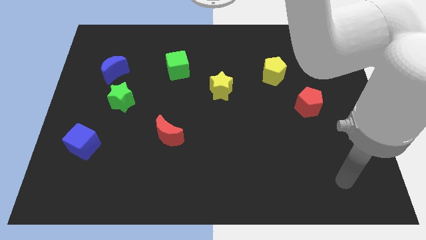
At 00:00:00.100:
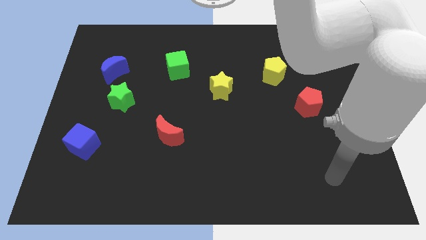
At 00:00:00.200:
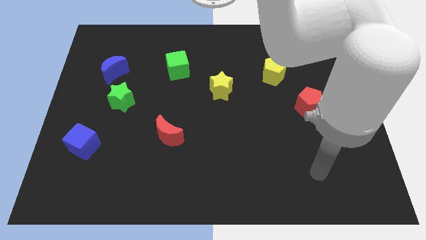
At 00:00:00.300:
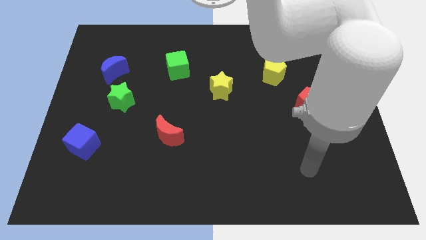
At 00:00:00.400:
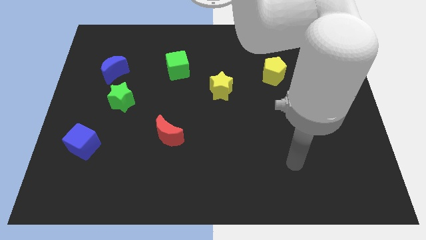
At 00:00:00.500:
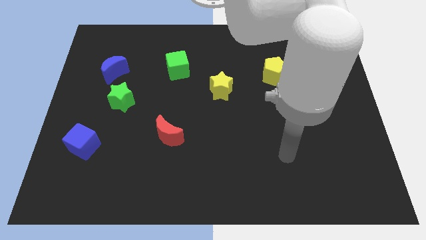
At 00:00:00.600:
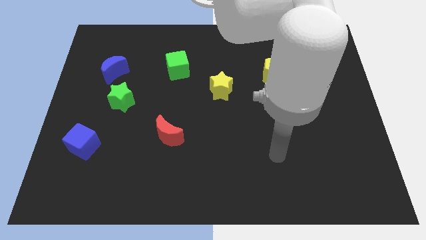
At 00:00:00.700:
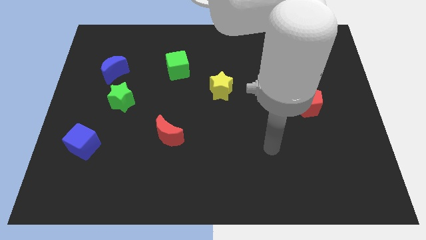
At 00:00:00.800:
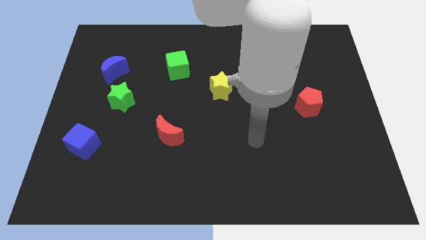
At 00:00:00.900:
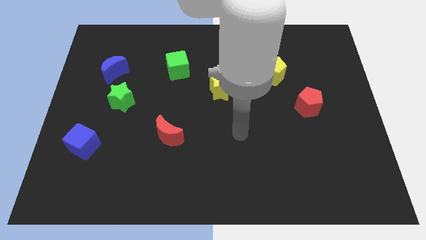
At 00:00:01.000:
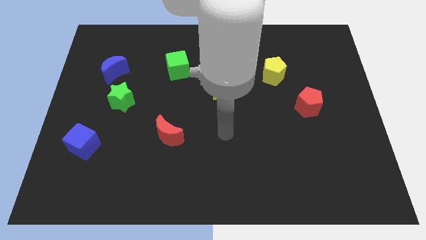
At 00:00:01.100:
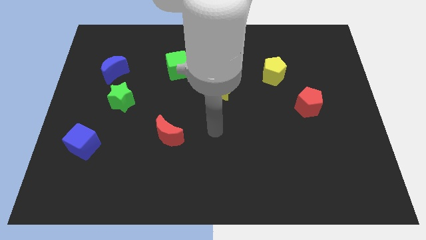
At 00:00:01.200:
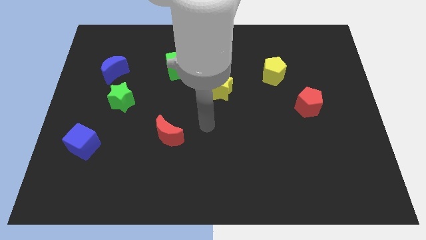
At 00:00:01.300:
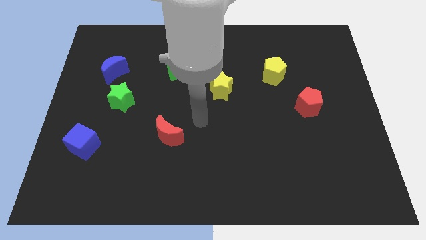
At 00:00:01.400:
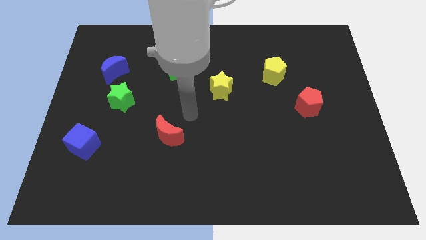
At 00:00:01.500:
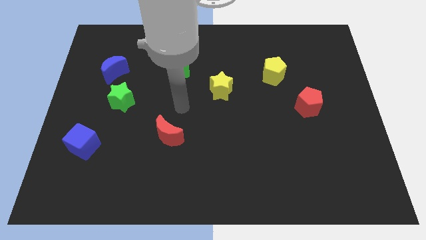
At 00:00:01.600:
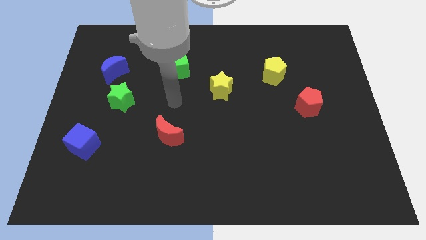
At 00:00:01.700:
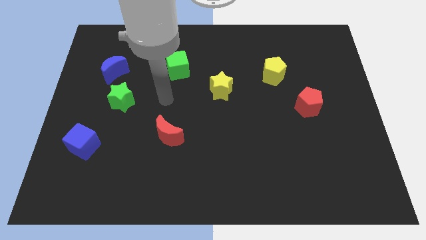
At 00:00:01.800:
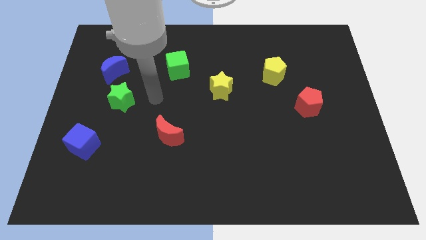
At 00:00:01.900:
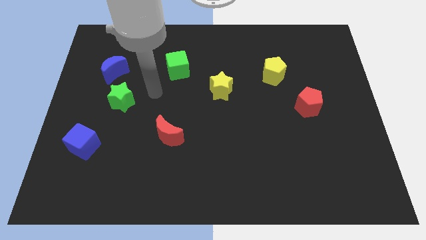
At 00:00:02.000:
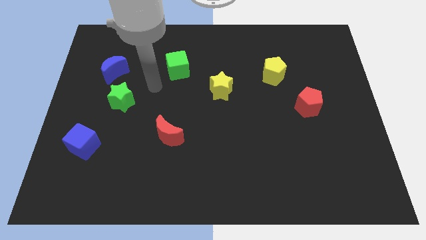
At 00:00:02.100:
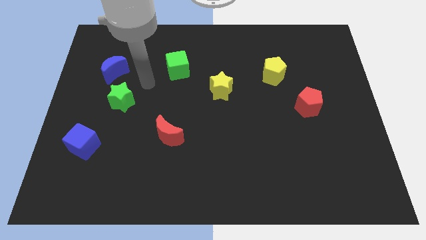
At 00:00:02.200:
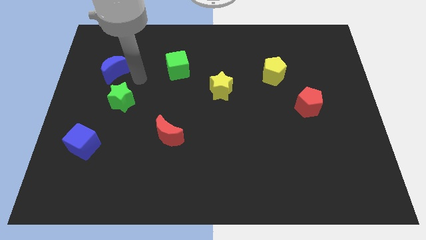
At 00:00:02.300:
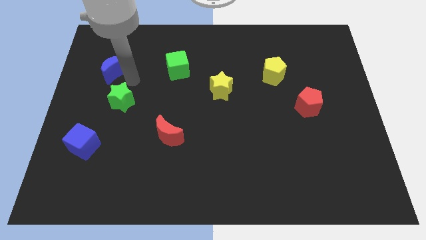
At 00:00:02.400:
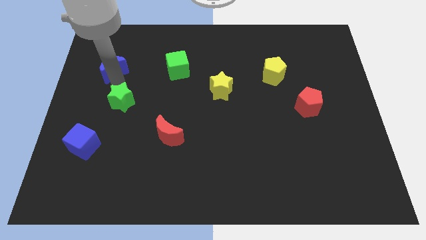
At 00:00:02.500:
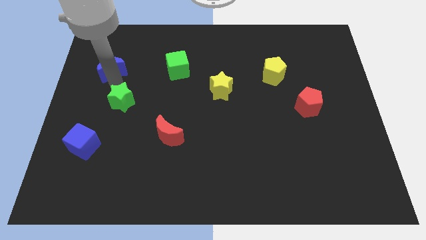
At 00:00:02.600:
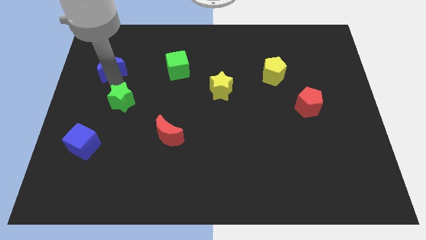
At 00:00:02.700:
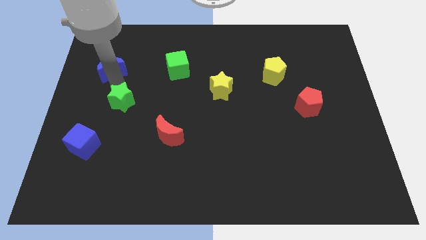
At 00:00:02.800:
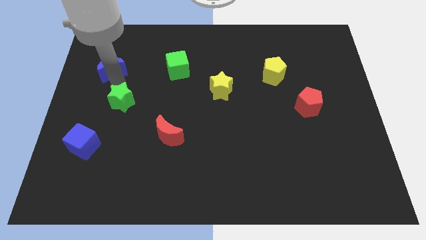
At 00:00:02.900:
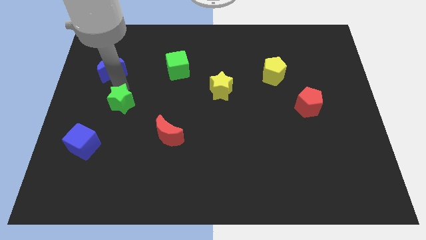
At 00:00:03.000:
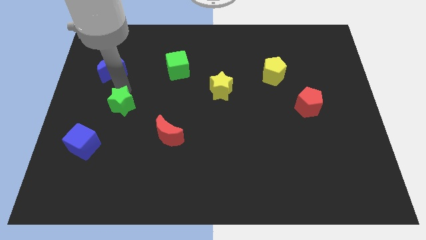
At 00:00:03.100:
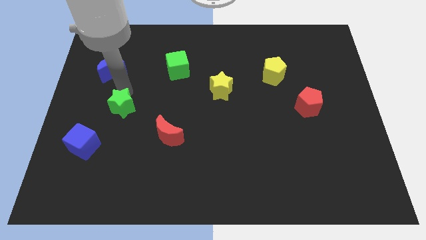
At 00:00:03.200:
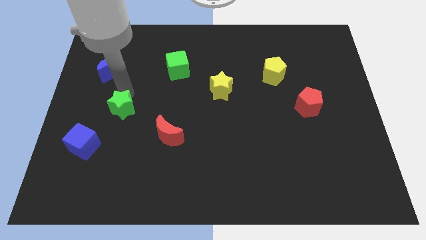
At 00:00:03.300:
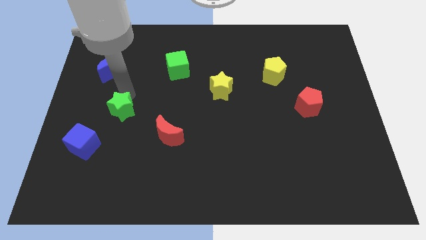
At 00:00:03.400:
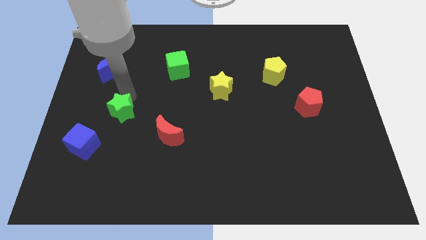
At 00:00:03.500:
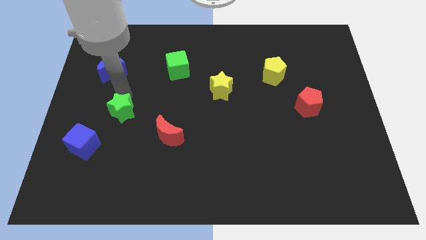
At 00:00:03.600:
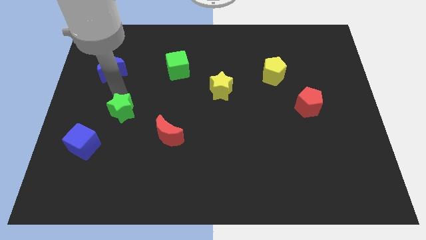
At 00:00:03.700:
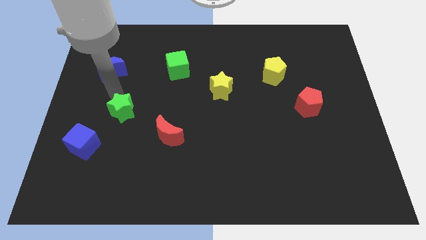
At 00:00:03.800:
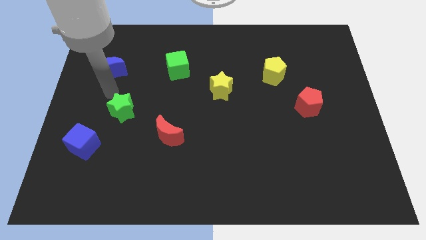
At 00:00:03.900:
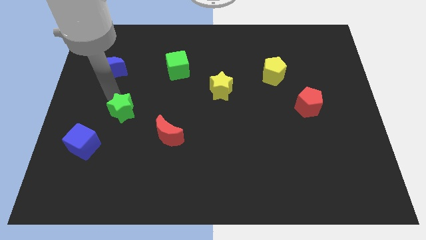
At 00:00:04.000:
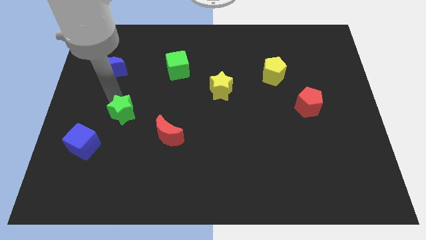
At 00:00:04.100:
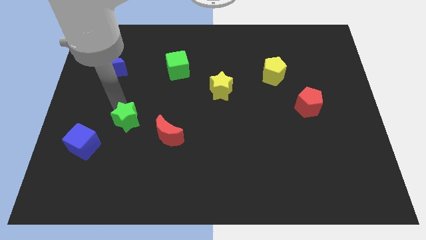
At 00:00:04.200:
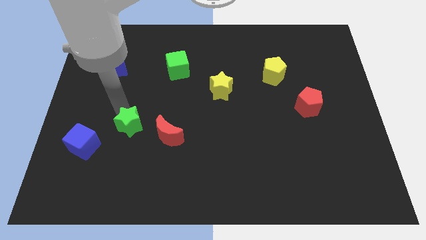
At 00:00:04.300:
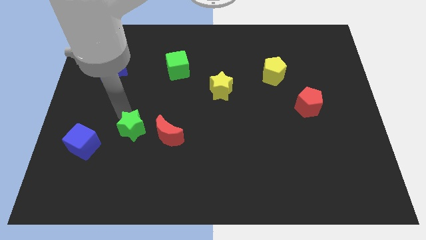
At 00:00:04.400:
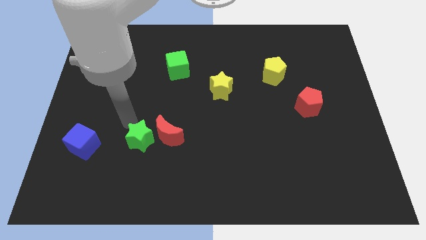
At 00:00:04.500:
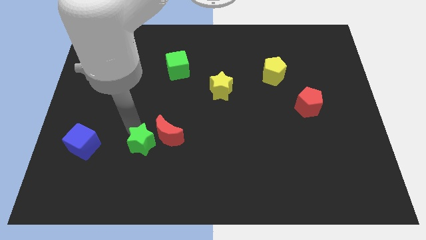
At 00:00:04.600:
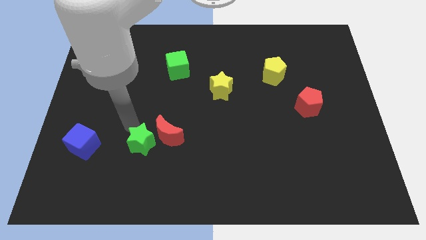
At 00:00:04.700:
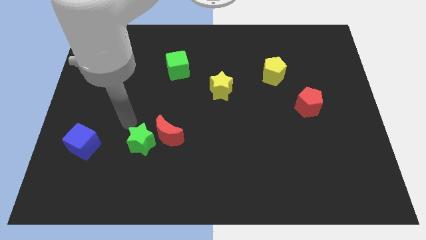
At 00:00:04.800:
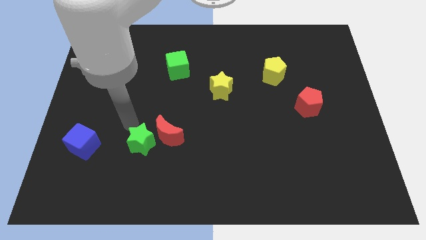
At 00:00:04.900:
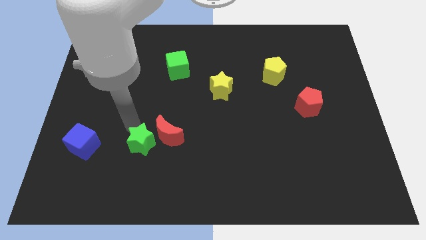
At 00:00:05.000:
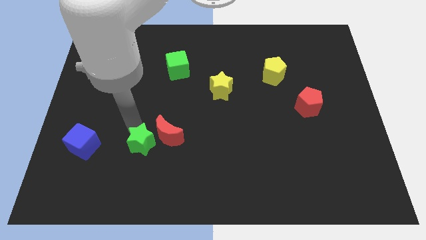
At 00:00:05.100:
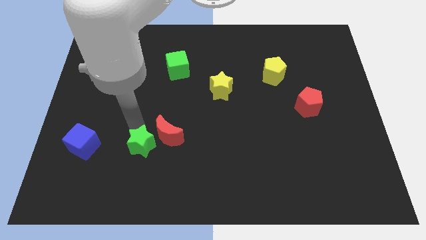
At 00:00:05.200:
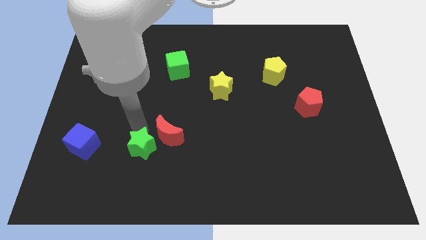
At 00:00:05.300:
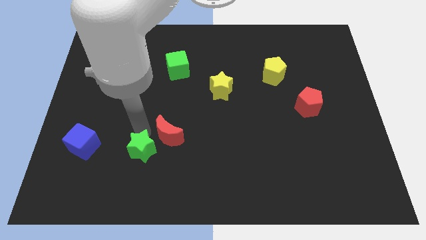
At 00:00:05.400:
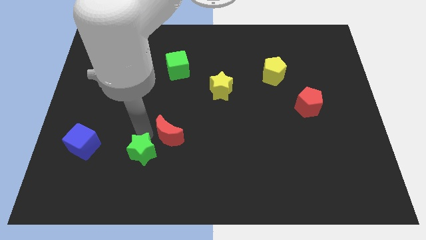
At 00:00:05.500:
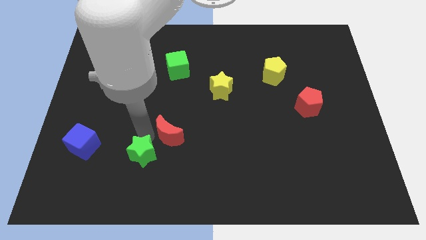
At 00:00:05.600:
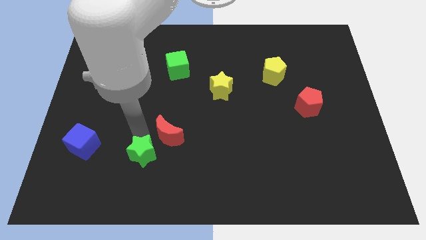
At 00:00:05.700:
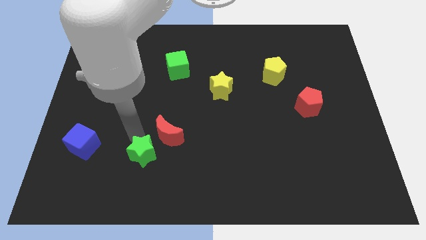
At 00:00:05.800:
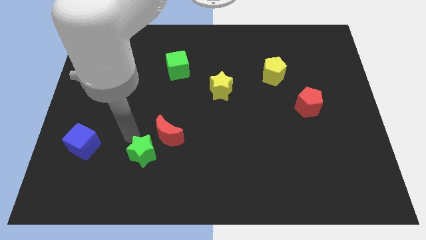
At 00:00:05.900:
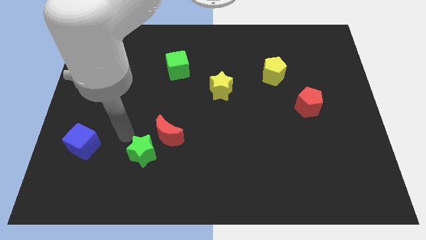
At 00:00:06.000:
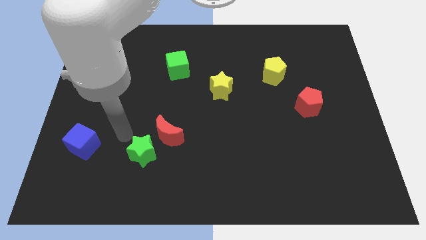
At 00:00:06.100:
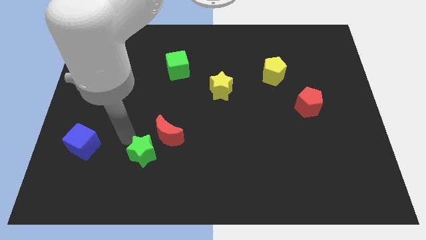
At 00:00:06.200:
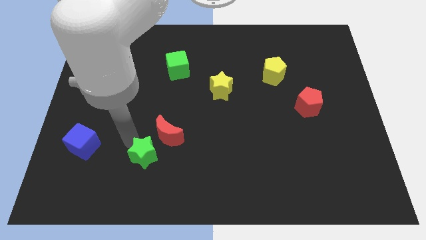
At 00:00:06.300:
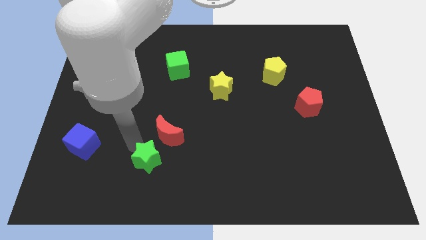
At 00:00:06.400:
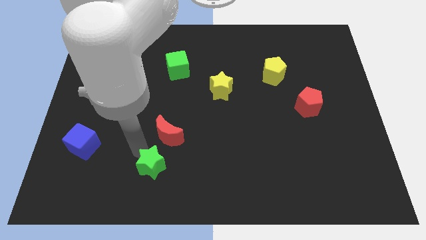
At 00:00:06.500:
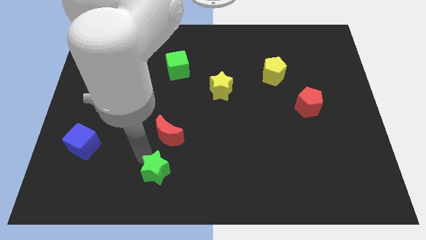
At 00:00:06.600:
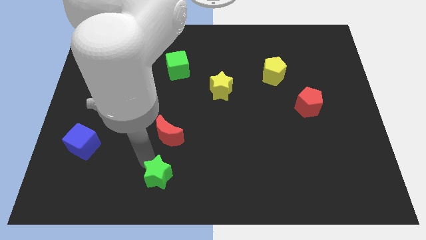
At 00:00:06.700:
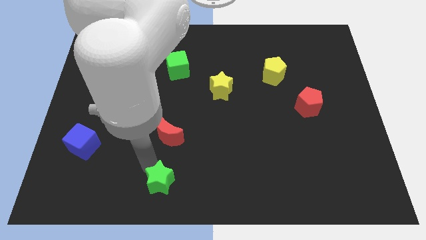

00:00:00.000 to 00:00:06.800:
push the green star to the bottom

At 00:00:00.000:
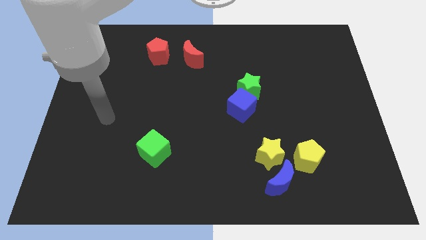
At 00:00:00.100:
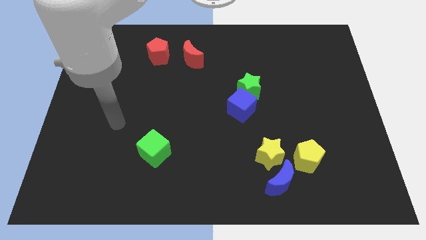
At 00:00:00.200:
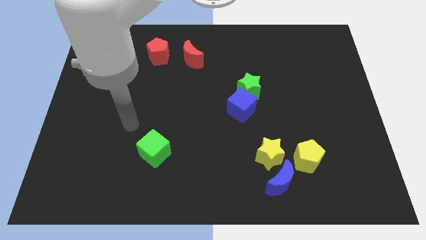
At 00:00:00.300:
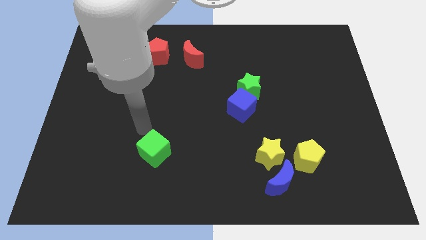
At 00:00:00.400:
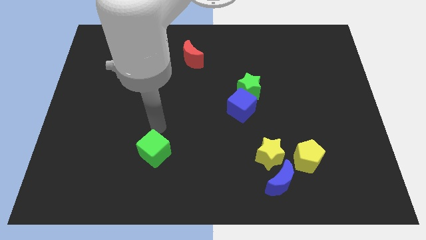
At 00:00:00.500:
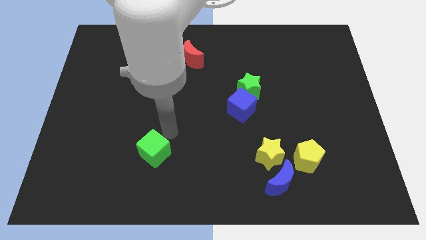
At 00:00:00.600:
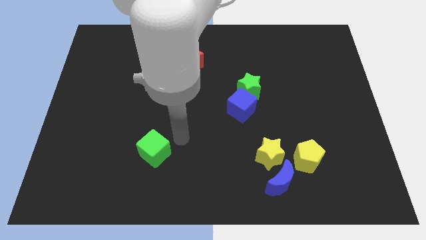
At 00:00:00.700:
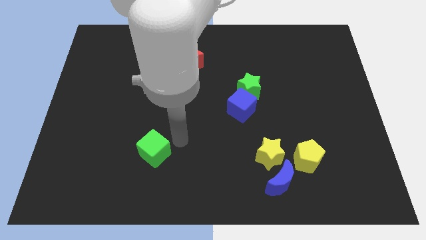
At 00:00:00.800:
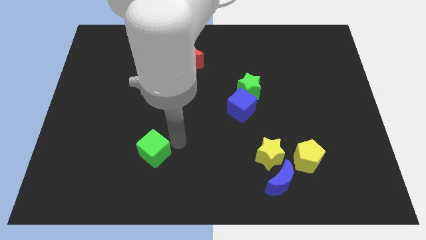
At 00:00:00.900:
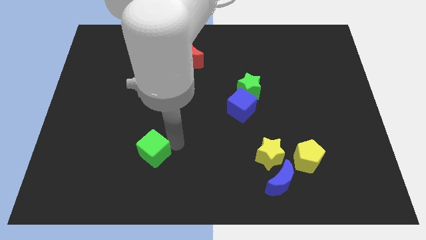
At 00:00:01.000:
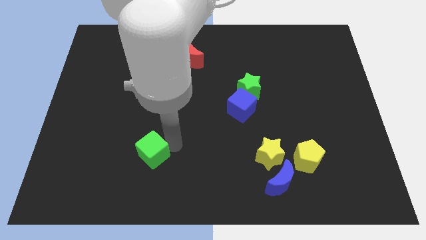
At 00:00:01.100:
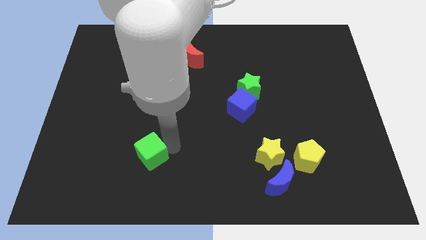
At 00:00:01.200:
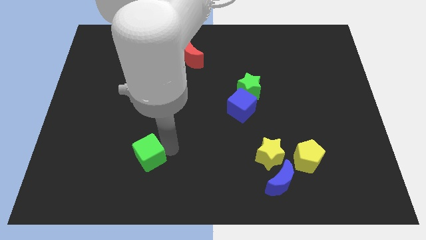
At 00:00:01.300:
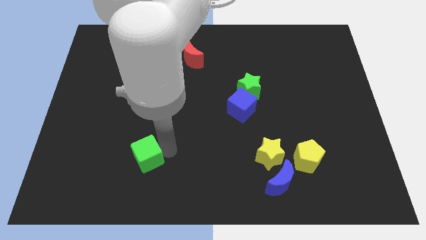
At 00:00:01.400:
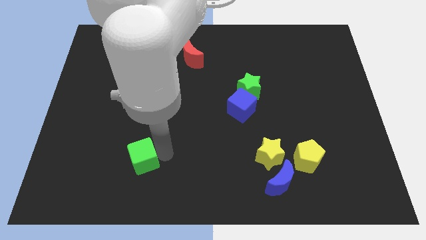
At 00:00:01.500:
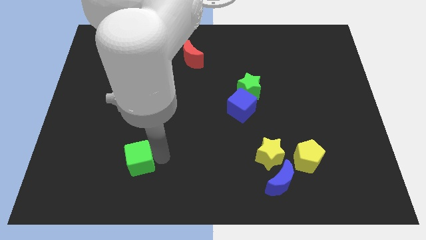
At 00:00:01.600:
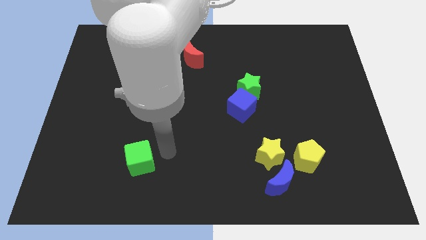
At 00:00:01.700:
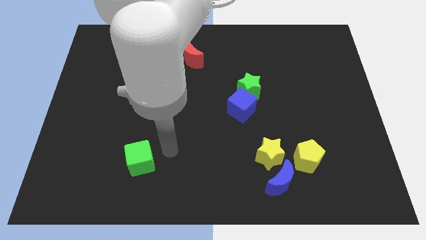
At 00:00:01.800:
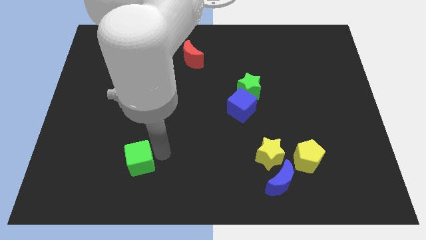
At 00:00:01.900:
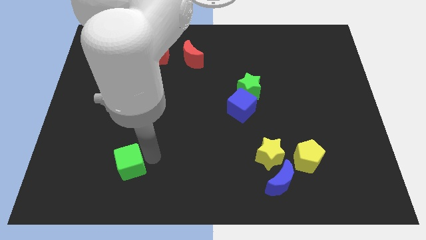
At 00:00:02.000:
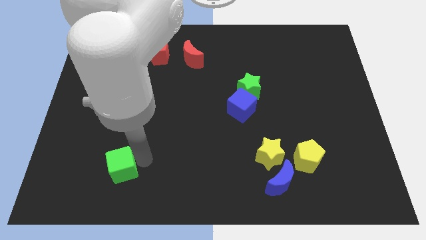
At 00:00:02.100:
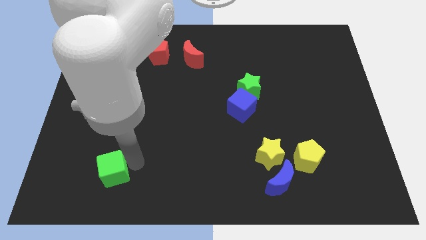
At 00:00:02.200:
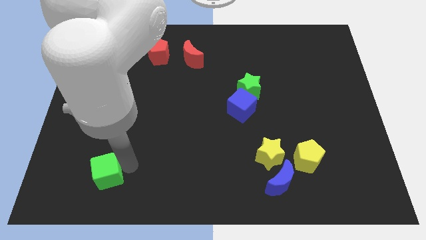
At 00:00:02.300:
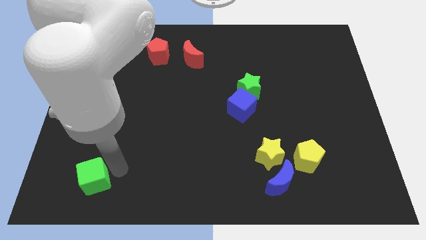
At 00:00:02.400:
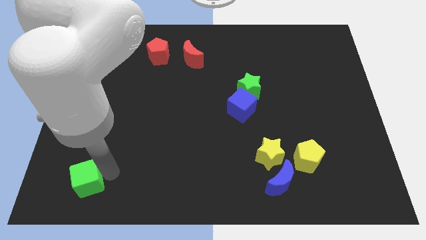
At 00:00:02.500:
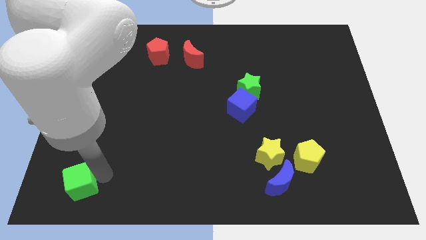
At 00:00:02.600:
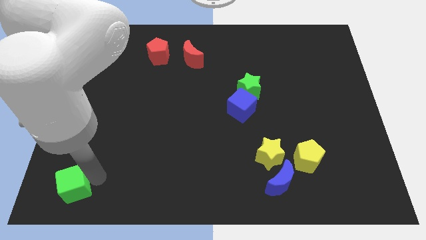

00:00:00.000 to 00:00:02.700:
push the green cube to the lower left corner
